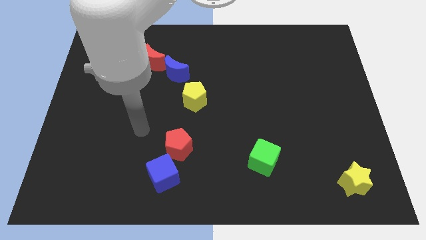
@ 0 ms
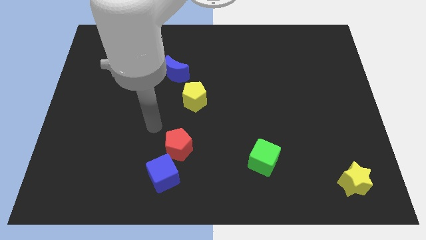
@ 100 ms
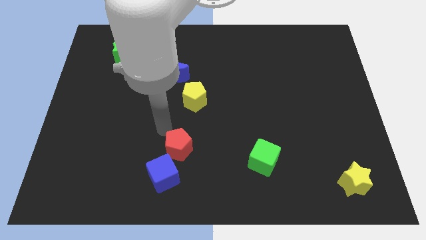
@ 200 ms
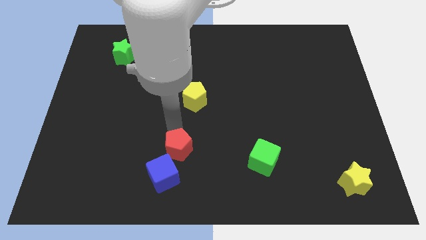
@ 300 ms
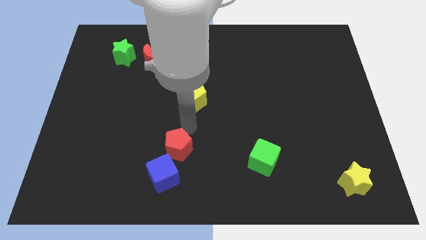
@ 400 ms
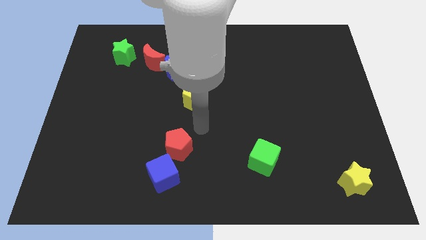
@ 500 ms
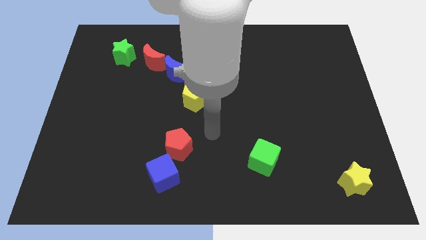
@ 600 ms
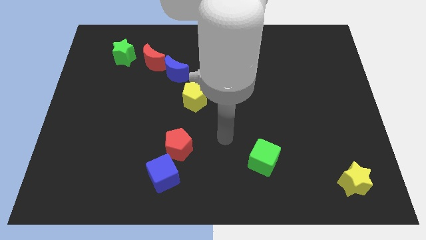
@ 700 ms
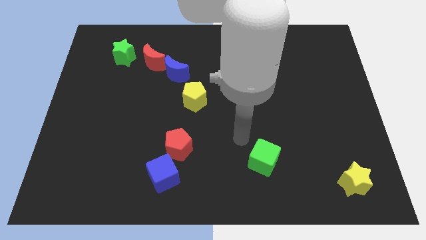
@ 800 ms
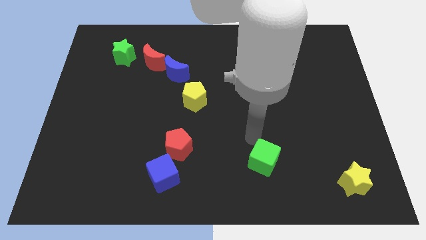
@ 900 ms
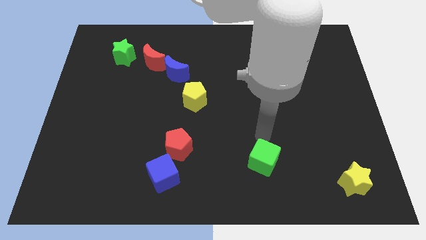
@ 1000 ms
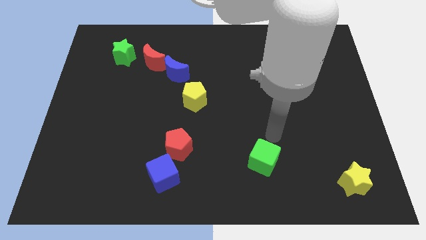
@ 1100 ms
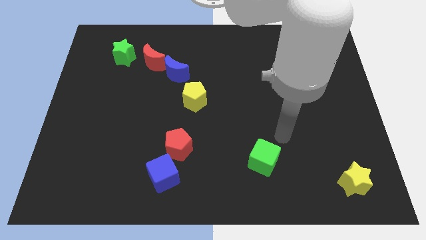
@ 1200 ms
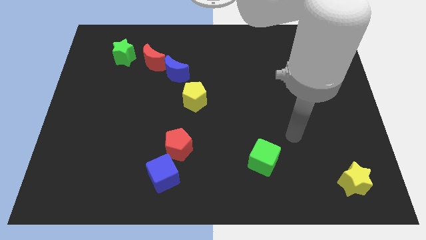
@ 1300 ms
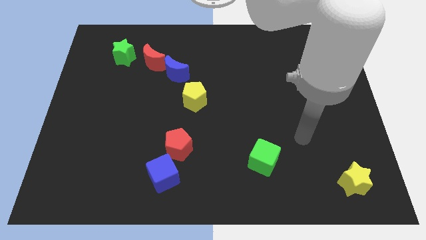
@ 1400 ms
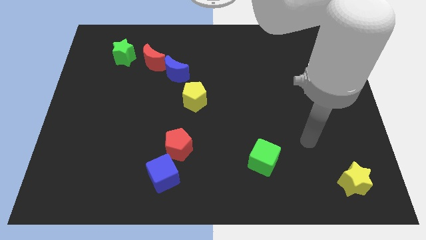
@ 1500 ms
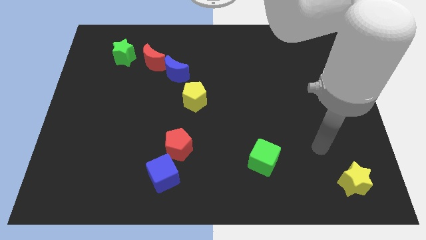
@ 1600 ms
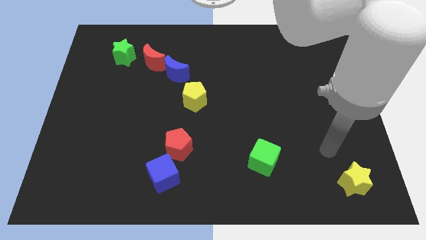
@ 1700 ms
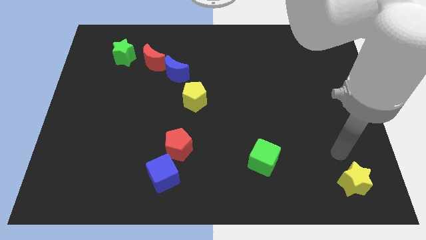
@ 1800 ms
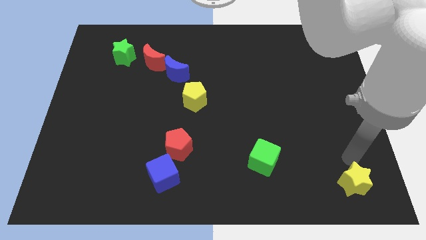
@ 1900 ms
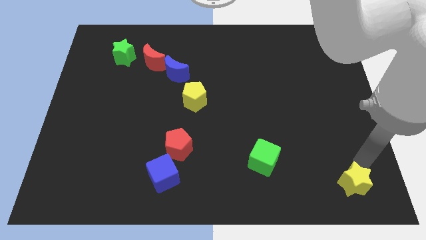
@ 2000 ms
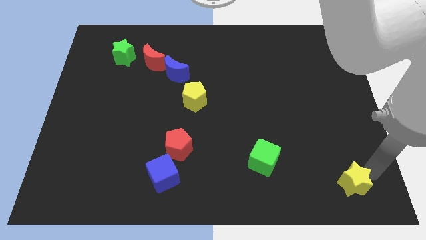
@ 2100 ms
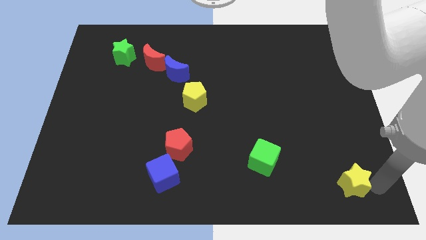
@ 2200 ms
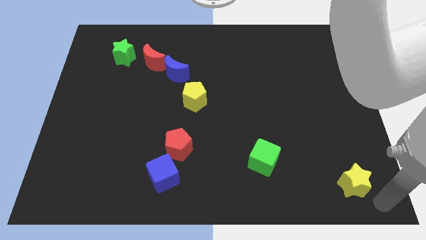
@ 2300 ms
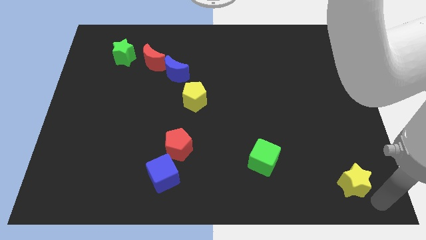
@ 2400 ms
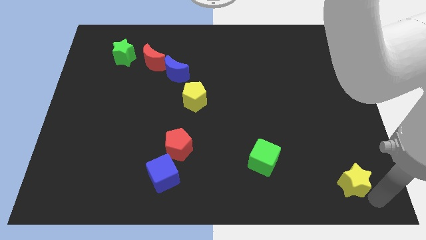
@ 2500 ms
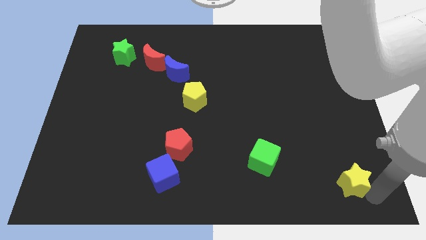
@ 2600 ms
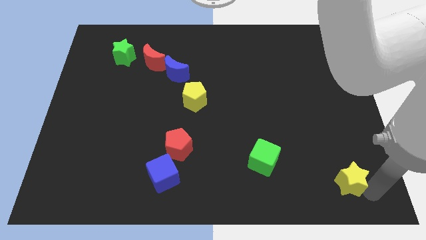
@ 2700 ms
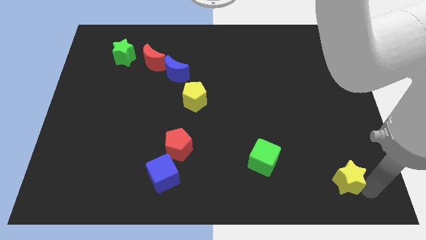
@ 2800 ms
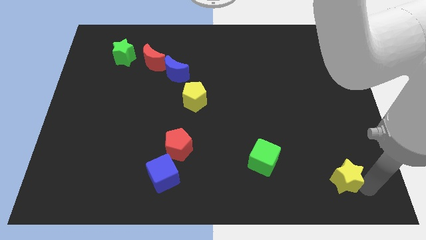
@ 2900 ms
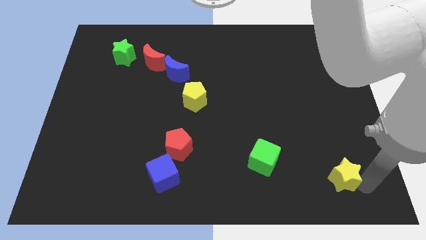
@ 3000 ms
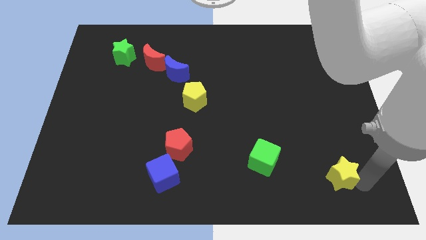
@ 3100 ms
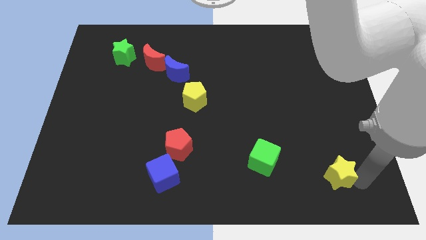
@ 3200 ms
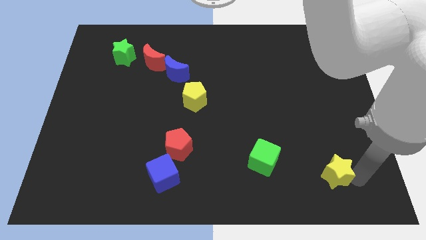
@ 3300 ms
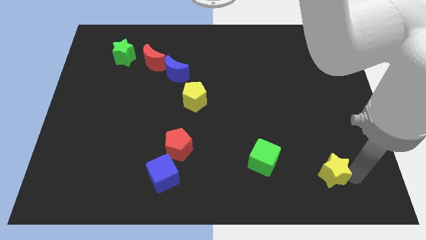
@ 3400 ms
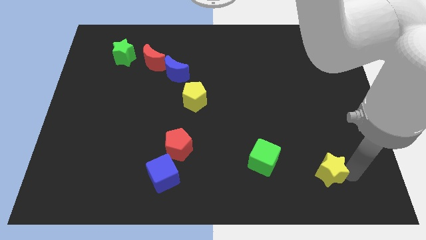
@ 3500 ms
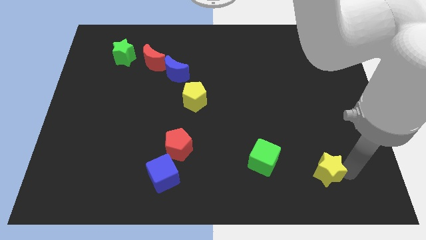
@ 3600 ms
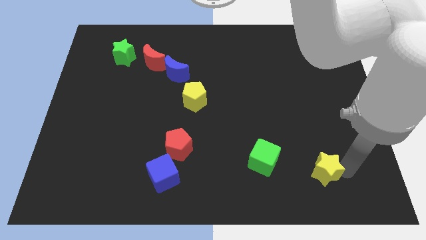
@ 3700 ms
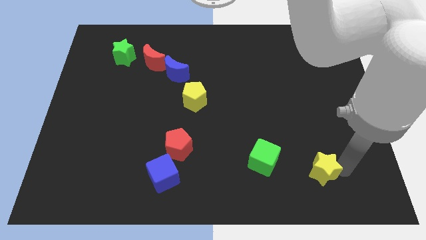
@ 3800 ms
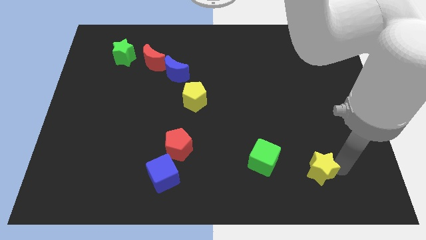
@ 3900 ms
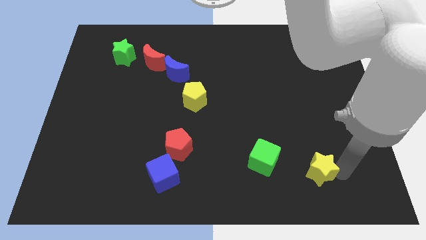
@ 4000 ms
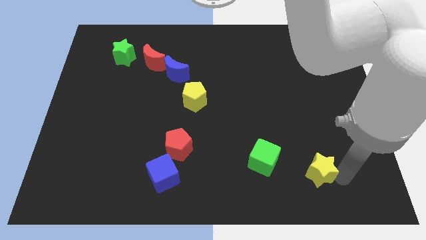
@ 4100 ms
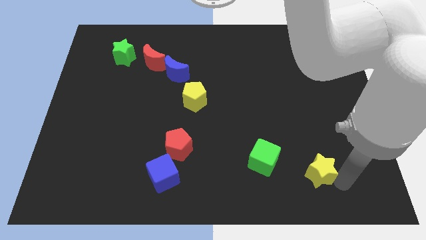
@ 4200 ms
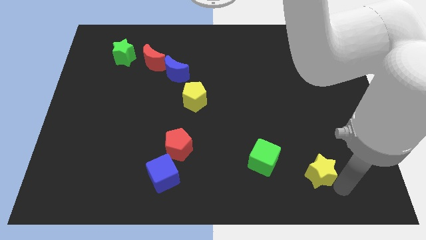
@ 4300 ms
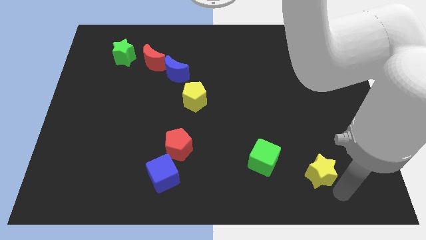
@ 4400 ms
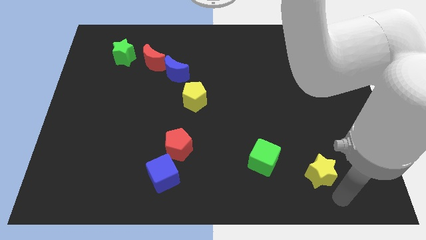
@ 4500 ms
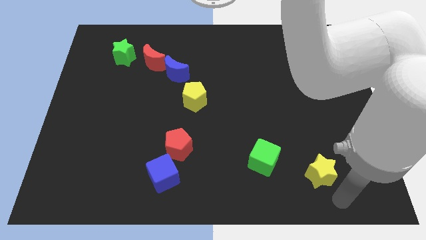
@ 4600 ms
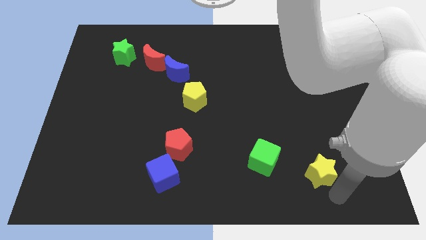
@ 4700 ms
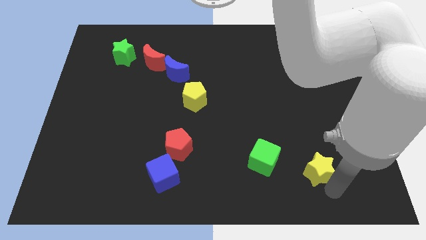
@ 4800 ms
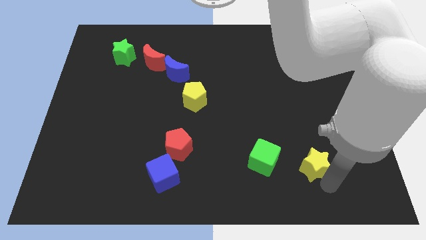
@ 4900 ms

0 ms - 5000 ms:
slightly push the yellow star up and to the left

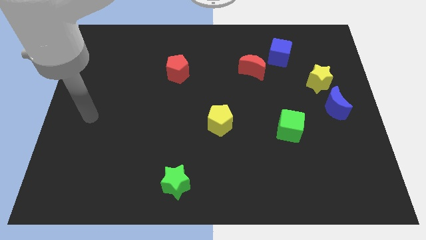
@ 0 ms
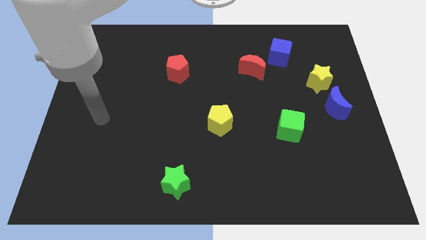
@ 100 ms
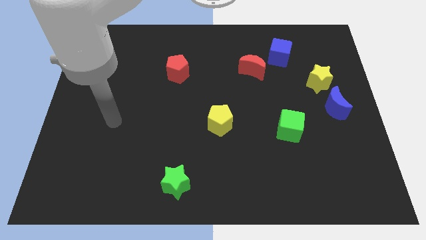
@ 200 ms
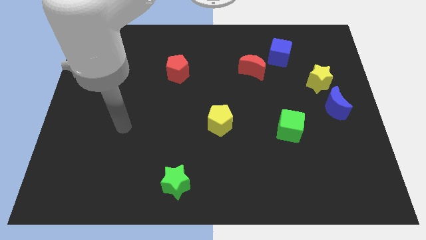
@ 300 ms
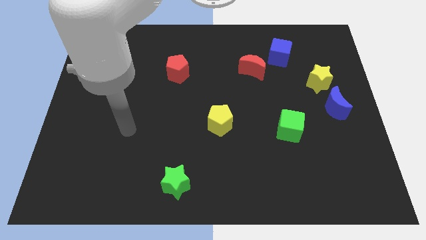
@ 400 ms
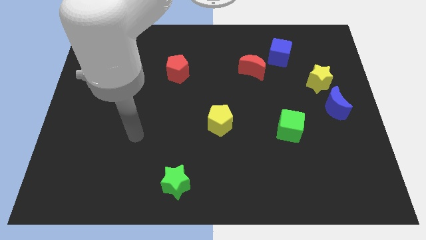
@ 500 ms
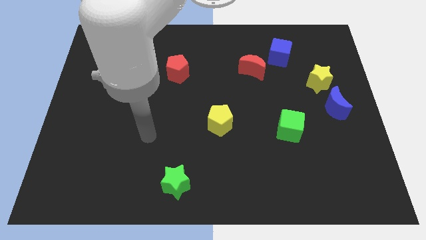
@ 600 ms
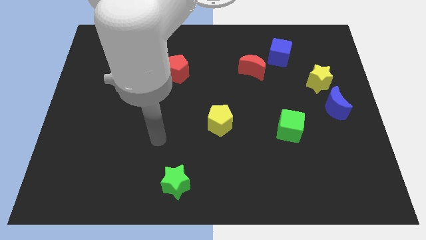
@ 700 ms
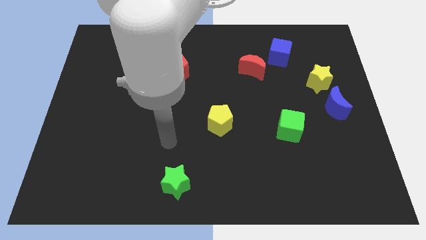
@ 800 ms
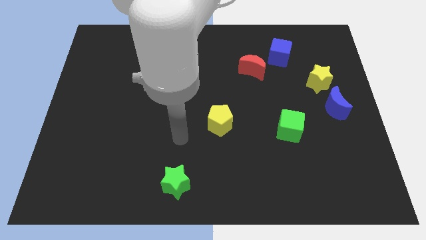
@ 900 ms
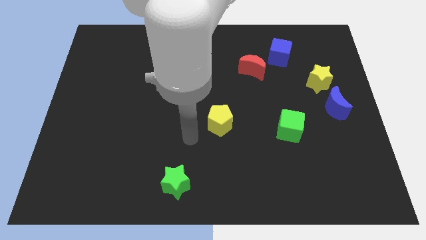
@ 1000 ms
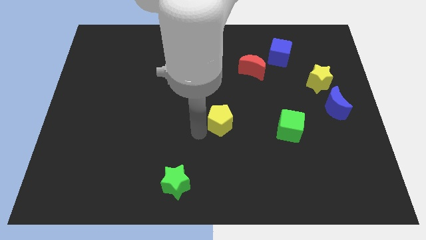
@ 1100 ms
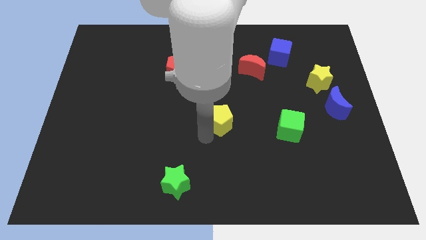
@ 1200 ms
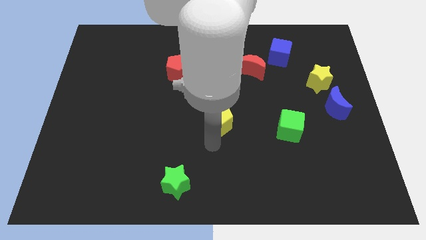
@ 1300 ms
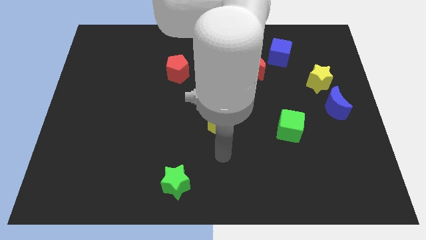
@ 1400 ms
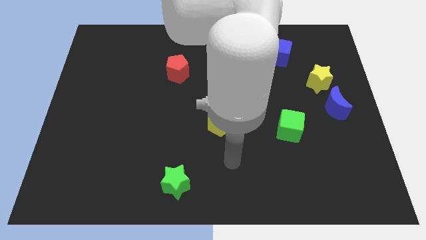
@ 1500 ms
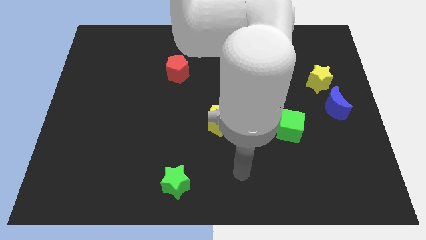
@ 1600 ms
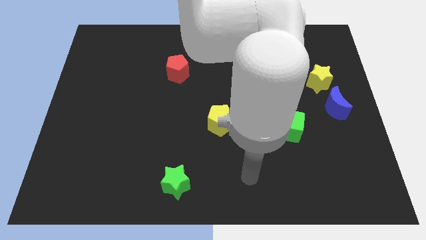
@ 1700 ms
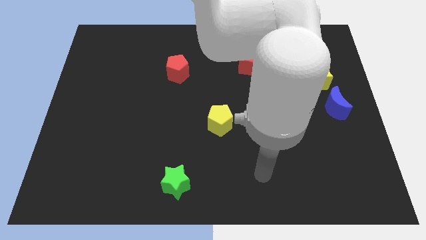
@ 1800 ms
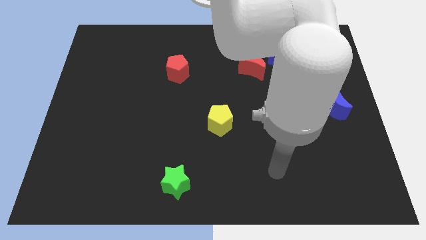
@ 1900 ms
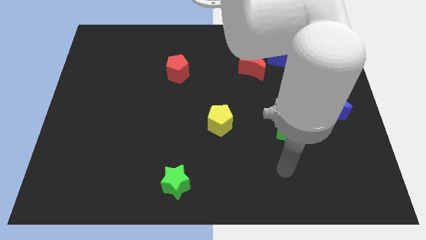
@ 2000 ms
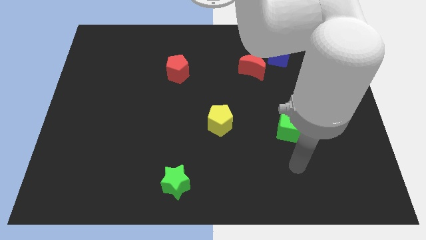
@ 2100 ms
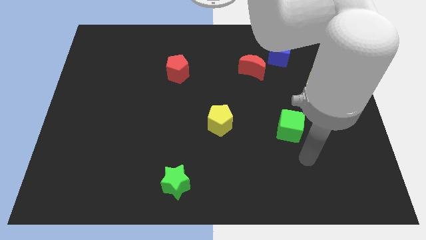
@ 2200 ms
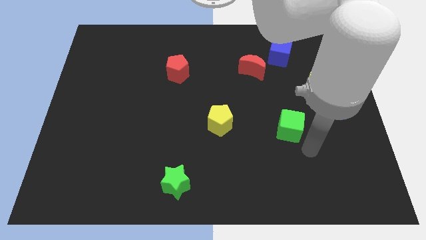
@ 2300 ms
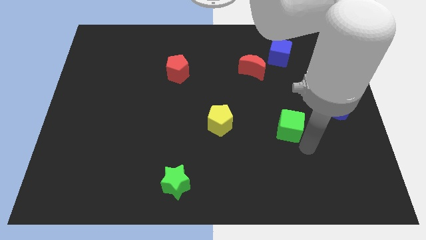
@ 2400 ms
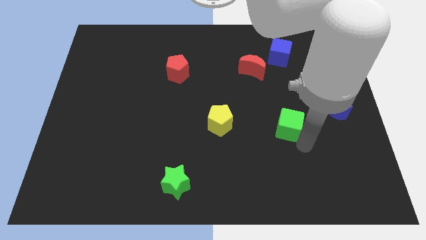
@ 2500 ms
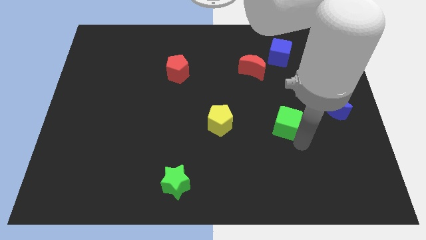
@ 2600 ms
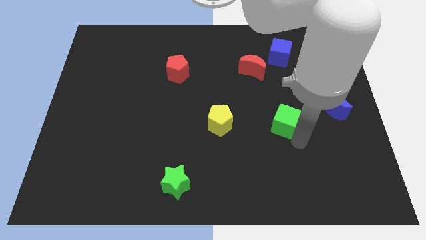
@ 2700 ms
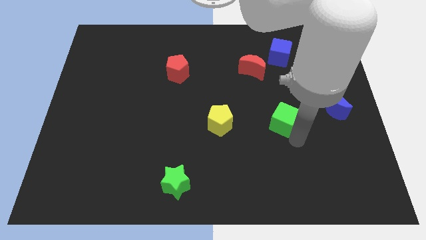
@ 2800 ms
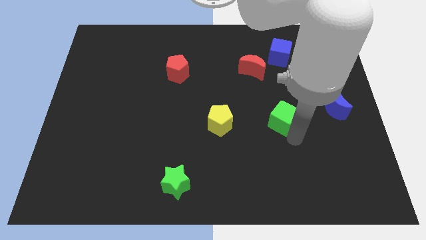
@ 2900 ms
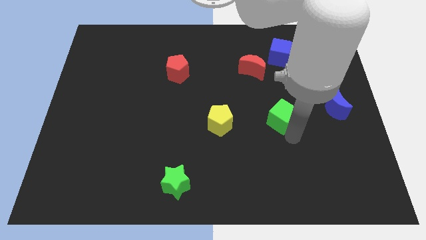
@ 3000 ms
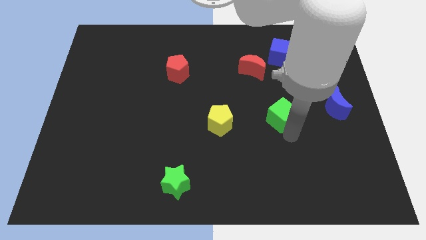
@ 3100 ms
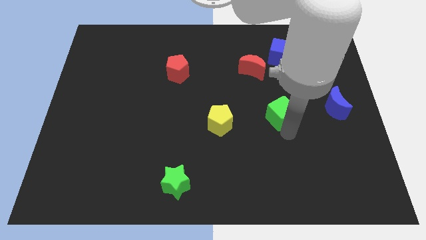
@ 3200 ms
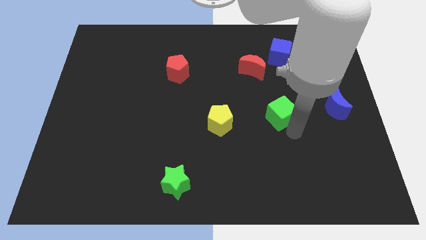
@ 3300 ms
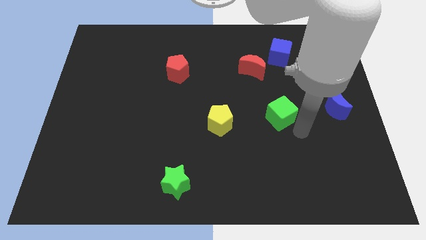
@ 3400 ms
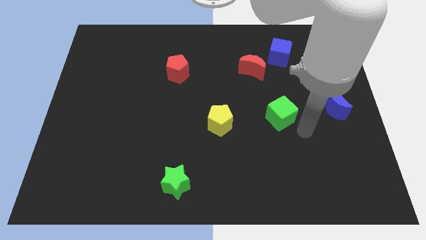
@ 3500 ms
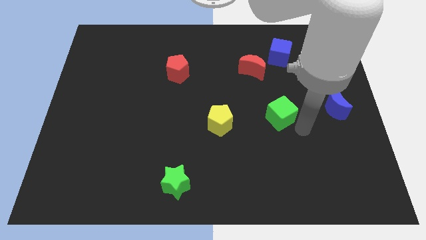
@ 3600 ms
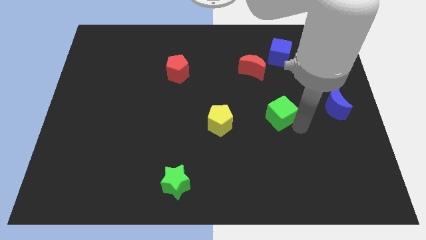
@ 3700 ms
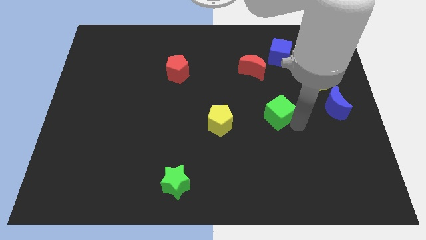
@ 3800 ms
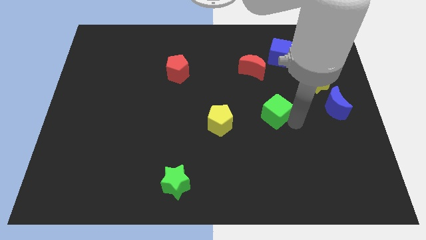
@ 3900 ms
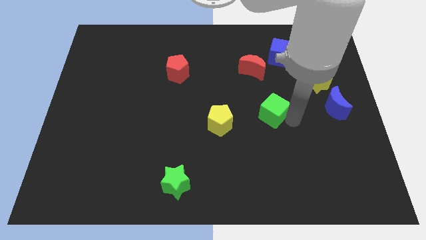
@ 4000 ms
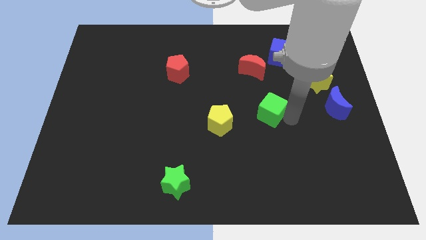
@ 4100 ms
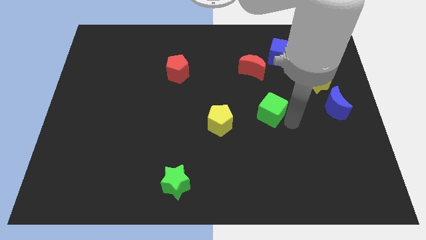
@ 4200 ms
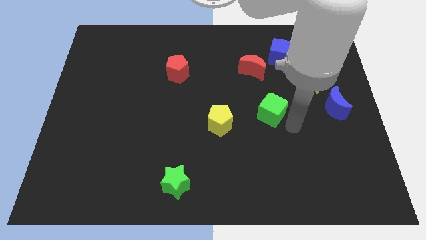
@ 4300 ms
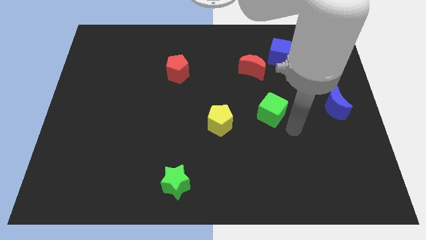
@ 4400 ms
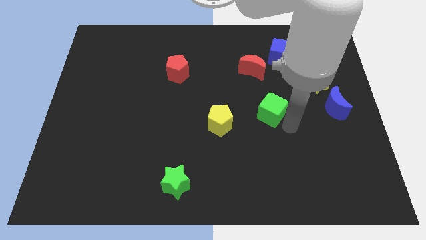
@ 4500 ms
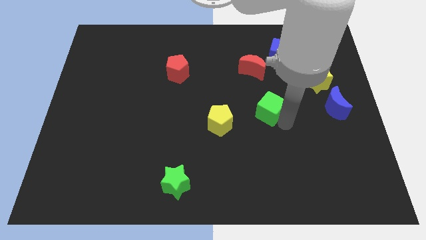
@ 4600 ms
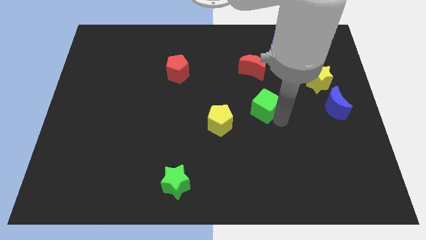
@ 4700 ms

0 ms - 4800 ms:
slightly push the green cube diagonally up and left
